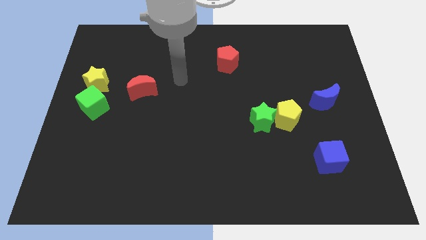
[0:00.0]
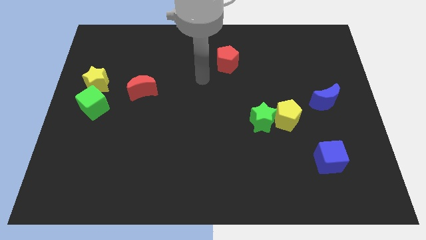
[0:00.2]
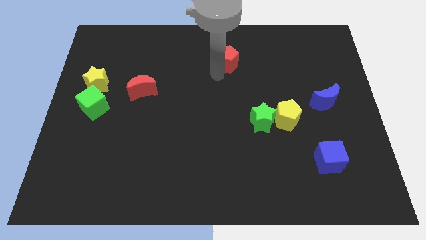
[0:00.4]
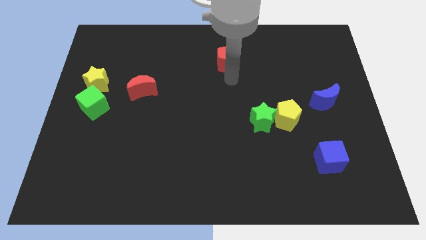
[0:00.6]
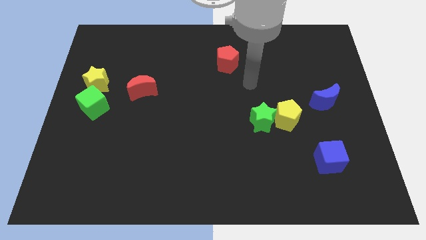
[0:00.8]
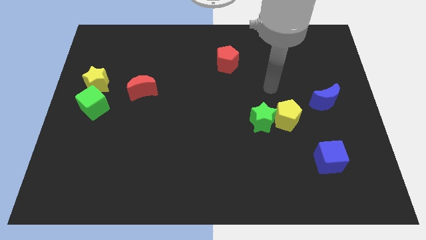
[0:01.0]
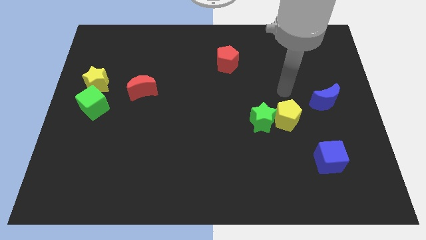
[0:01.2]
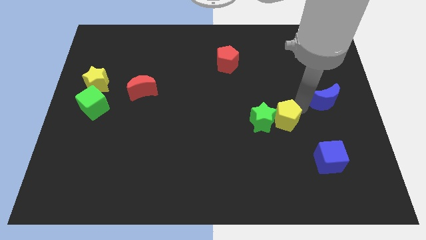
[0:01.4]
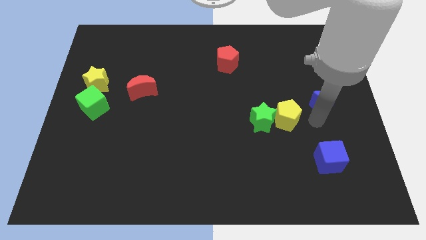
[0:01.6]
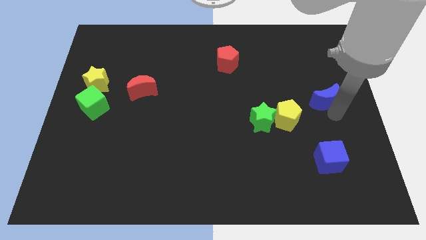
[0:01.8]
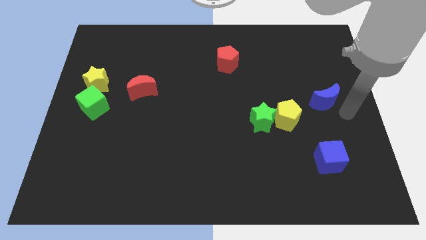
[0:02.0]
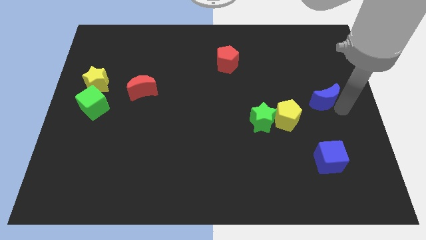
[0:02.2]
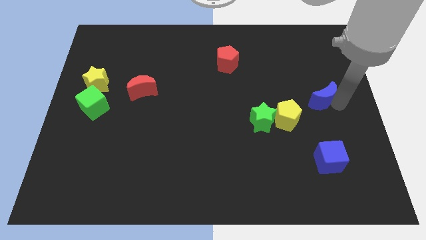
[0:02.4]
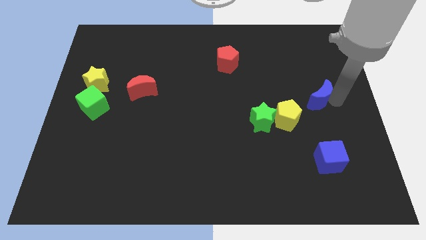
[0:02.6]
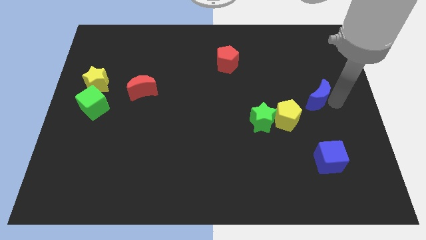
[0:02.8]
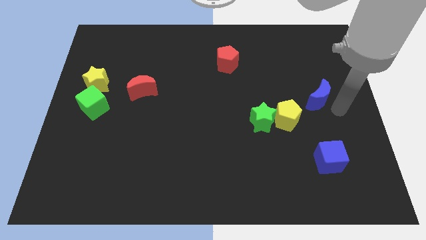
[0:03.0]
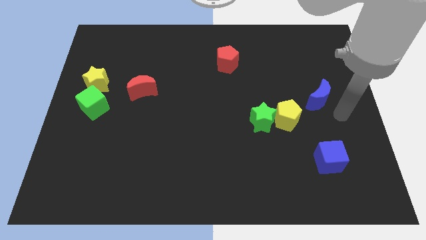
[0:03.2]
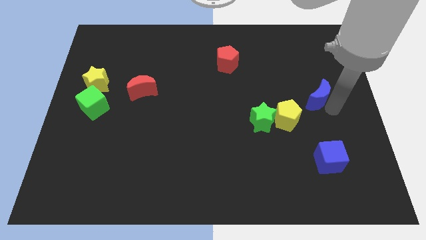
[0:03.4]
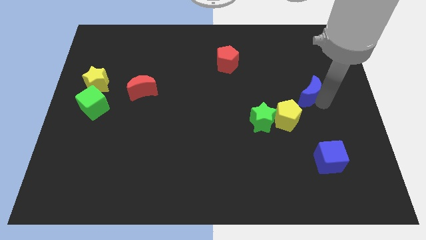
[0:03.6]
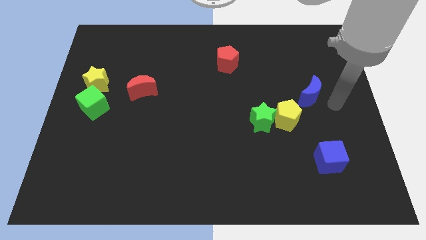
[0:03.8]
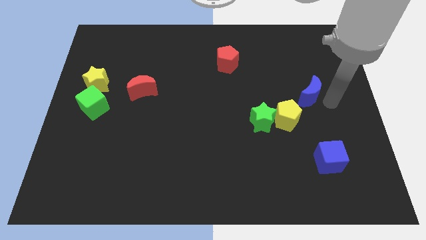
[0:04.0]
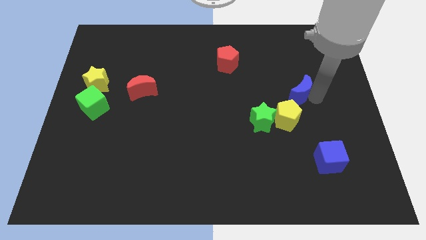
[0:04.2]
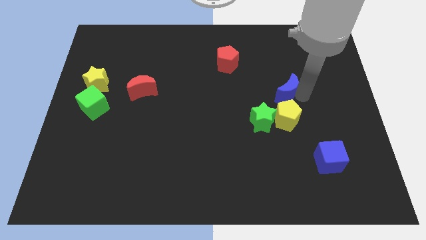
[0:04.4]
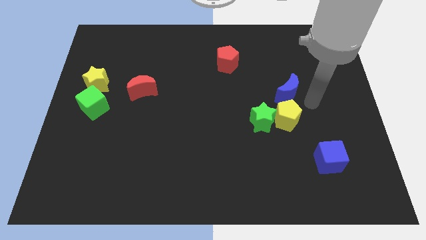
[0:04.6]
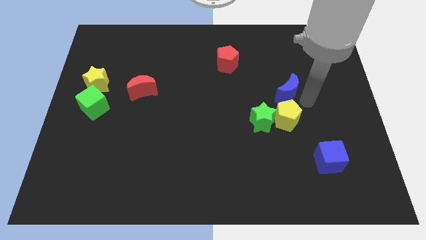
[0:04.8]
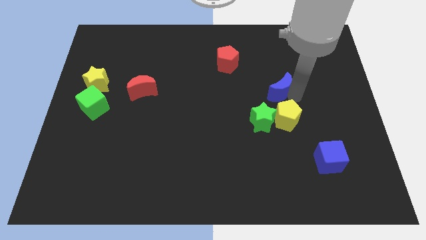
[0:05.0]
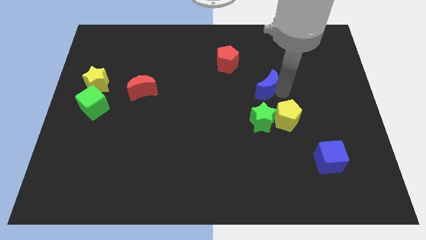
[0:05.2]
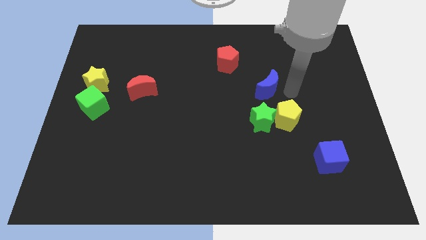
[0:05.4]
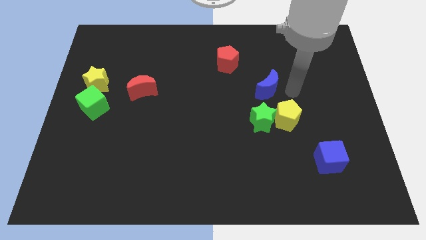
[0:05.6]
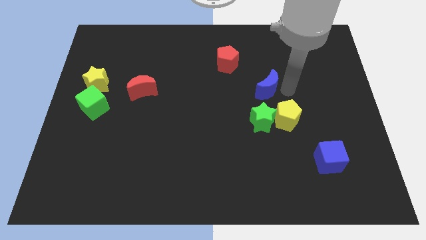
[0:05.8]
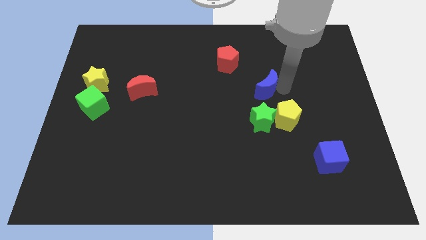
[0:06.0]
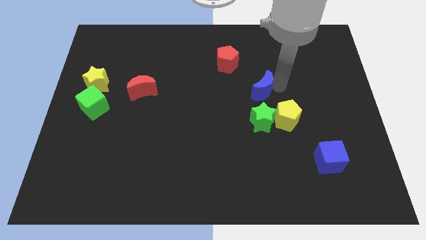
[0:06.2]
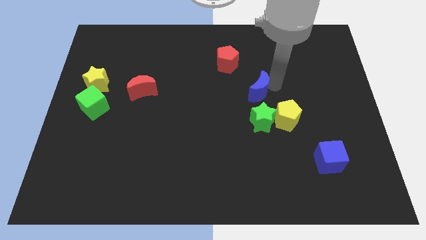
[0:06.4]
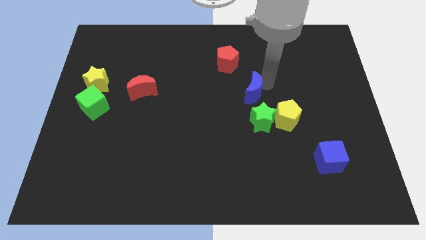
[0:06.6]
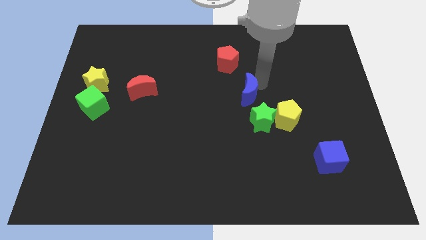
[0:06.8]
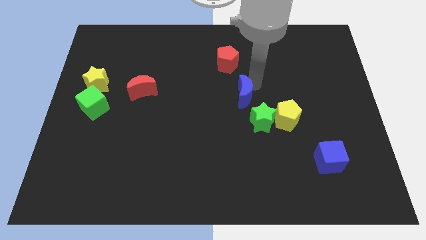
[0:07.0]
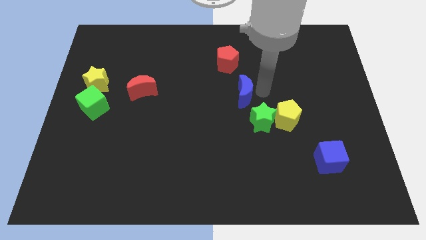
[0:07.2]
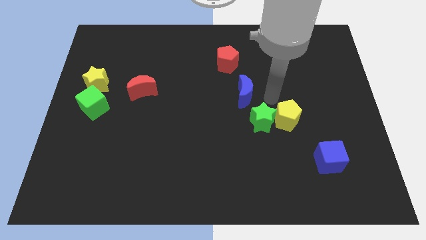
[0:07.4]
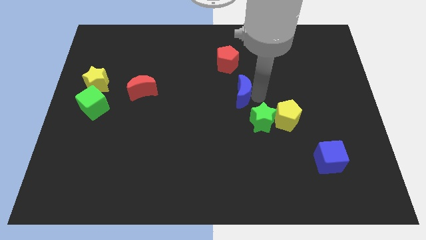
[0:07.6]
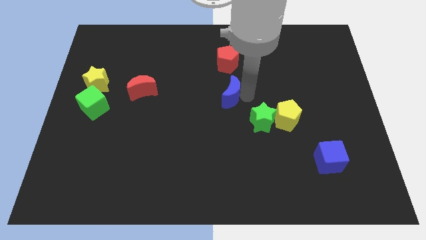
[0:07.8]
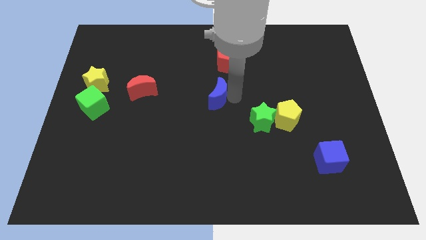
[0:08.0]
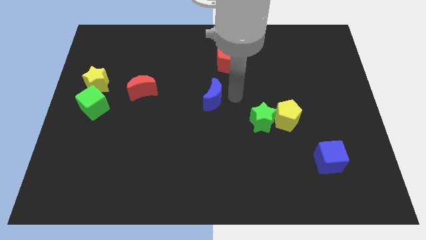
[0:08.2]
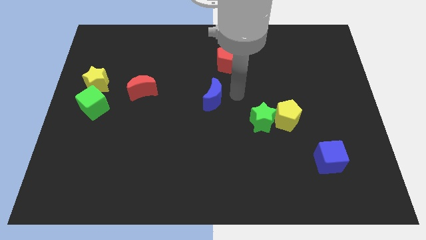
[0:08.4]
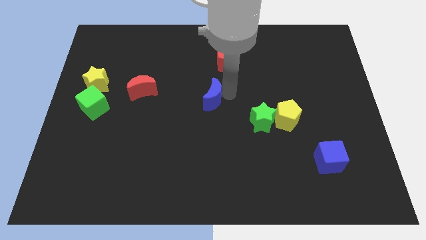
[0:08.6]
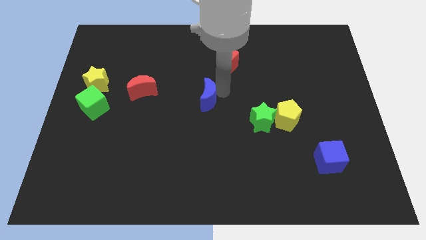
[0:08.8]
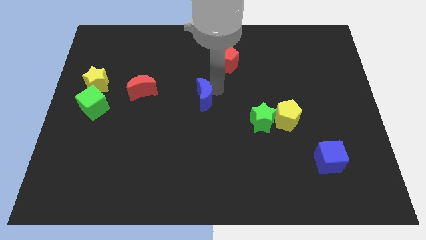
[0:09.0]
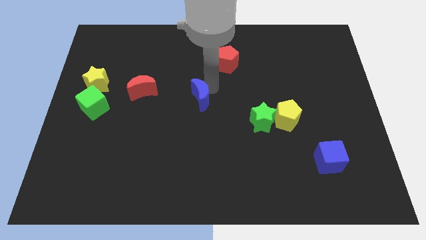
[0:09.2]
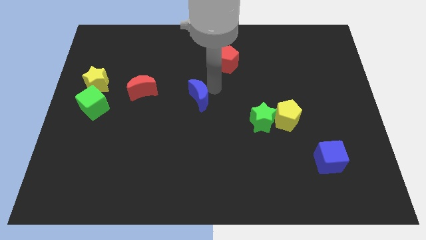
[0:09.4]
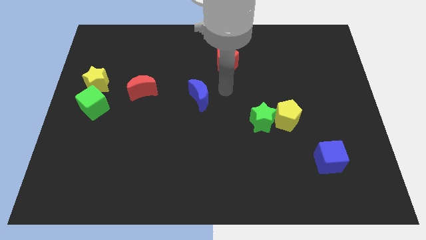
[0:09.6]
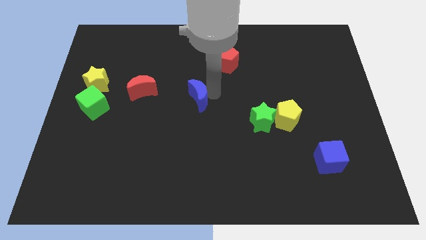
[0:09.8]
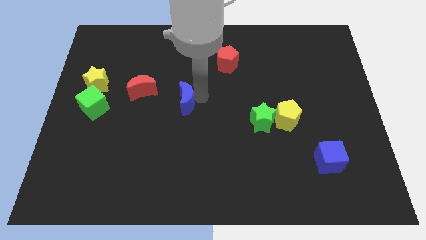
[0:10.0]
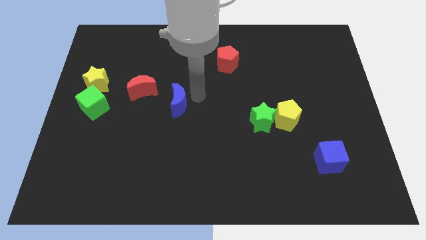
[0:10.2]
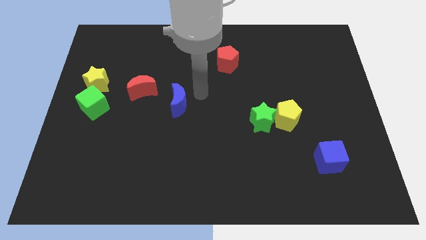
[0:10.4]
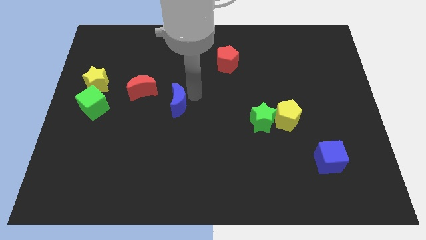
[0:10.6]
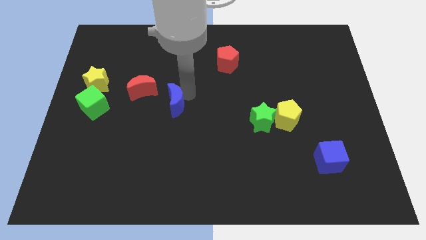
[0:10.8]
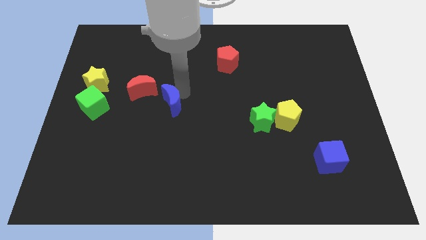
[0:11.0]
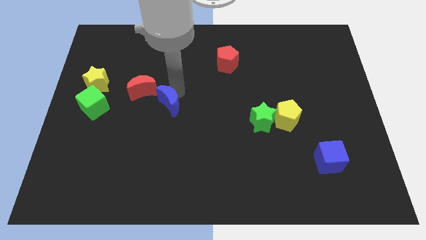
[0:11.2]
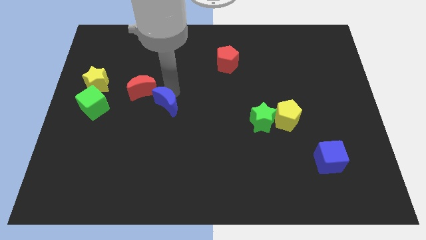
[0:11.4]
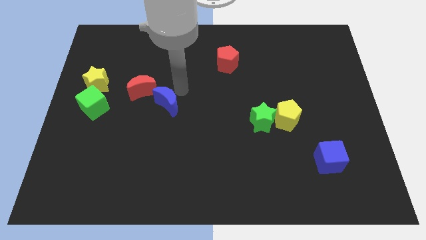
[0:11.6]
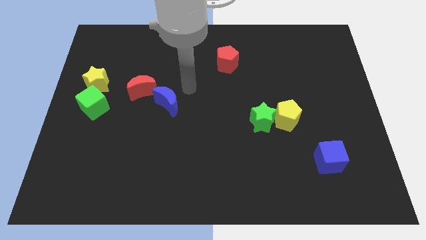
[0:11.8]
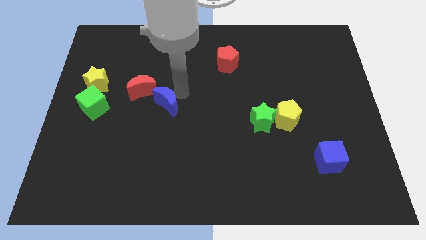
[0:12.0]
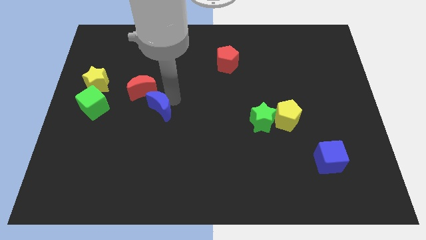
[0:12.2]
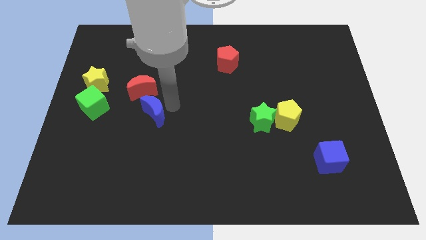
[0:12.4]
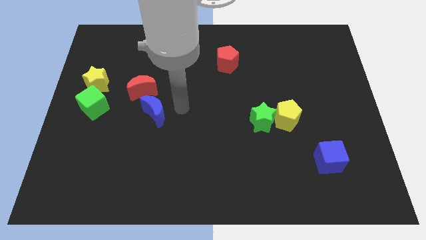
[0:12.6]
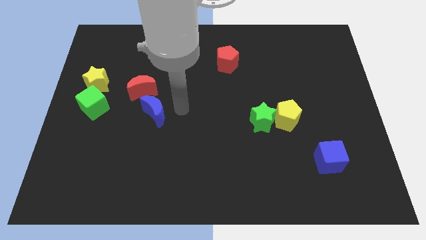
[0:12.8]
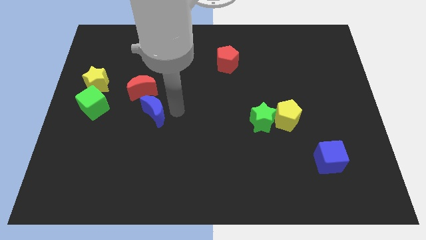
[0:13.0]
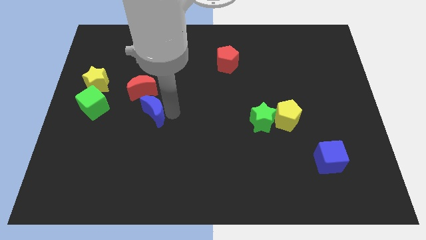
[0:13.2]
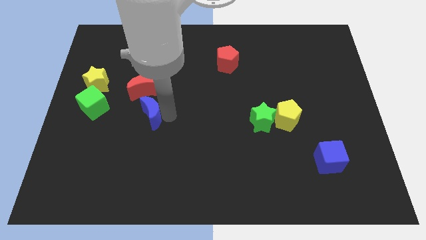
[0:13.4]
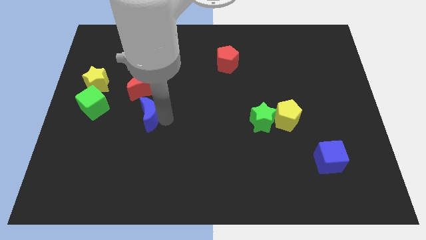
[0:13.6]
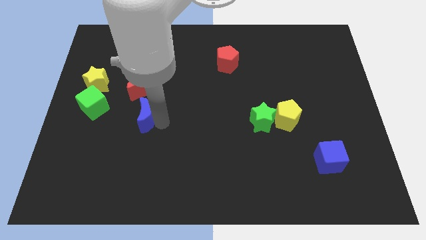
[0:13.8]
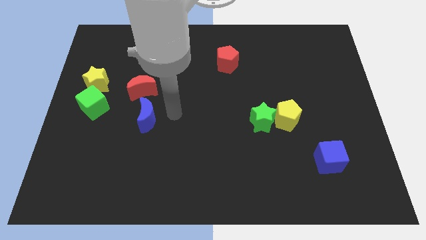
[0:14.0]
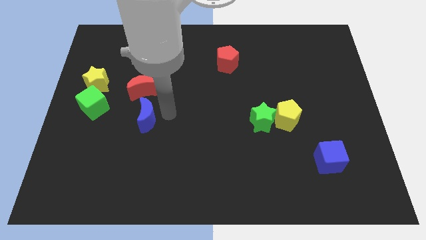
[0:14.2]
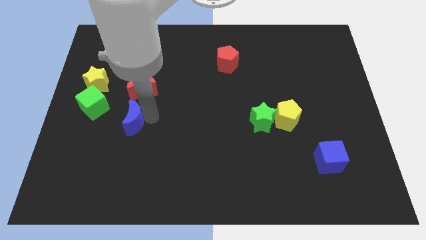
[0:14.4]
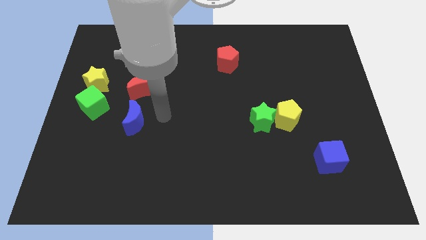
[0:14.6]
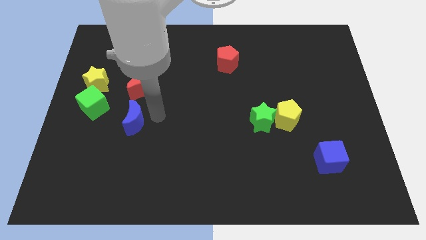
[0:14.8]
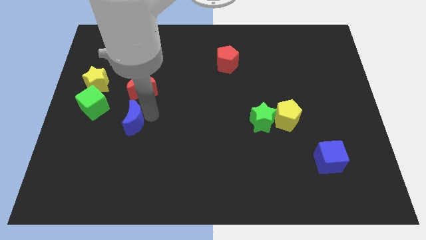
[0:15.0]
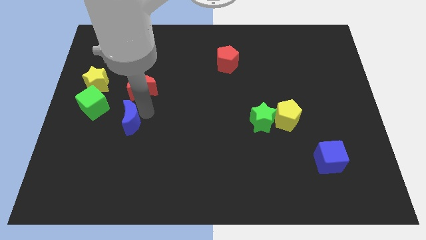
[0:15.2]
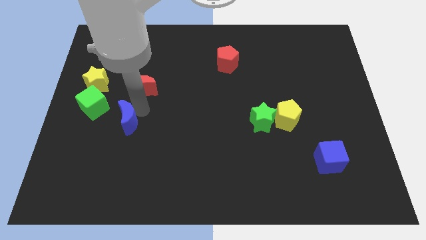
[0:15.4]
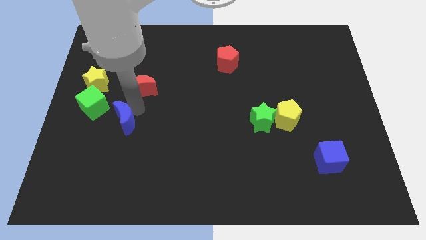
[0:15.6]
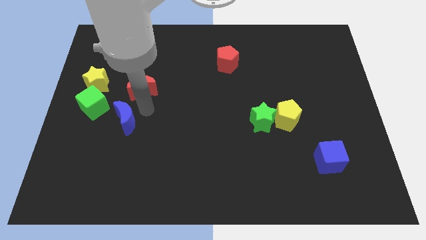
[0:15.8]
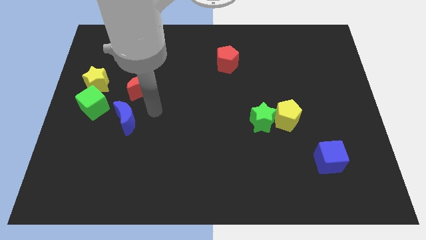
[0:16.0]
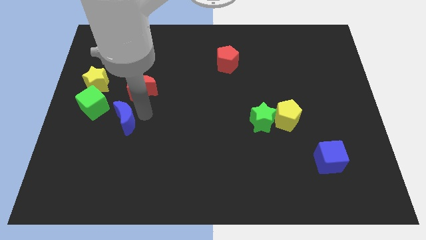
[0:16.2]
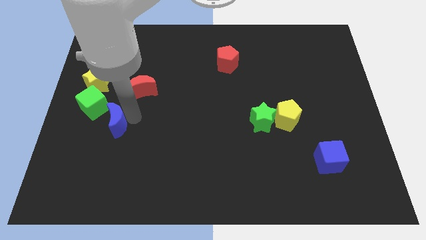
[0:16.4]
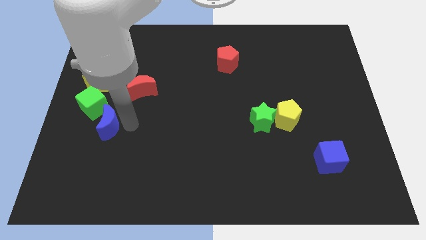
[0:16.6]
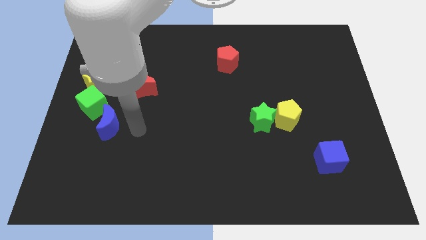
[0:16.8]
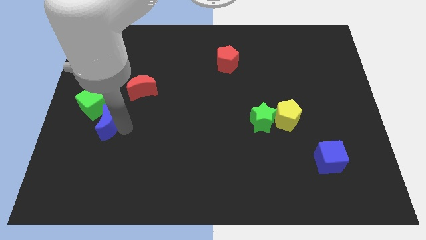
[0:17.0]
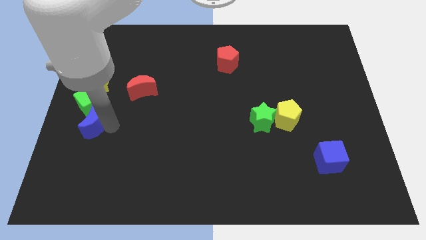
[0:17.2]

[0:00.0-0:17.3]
move the blue moon to the left side of the board
